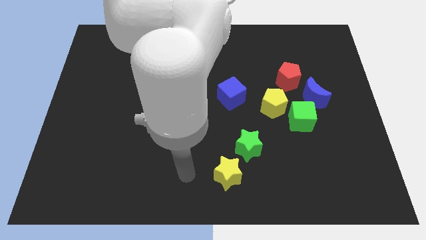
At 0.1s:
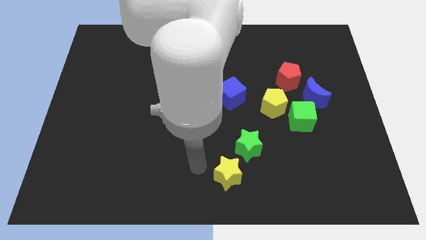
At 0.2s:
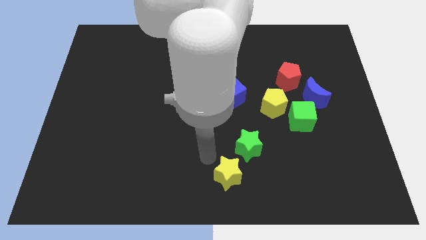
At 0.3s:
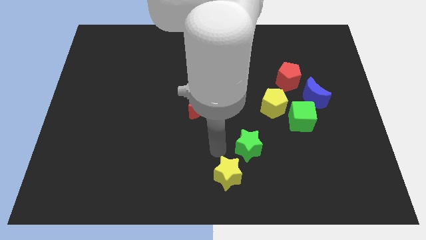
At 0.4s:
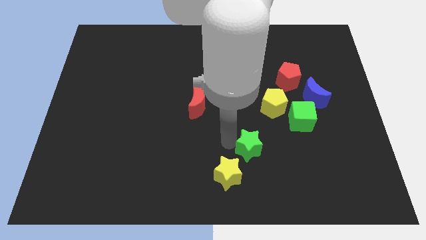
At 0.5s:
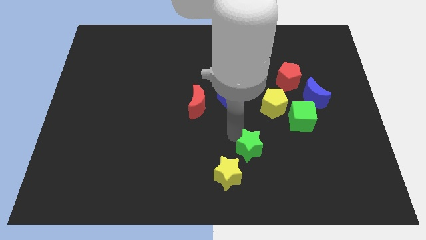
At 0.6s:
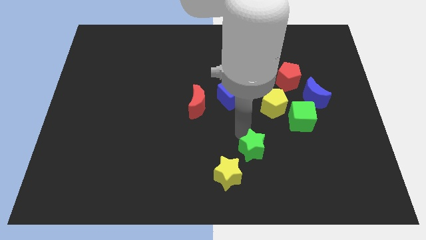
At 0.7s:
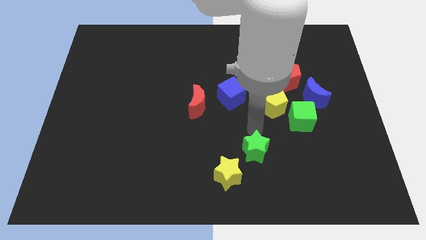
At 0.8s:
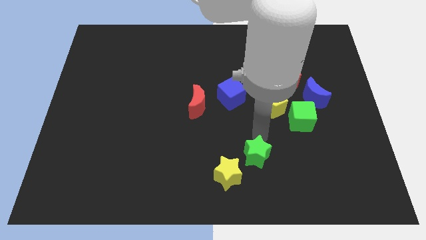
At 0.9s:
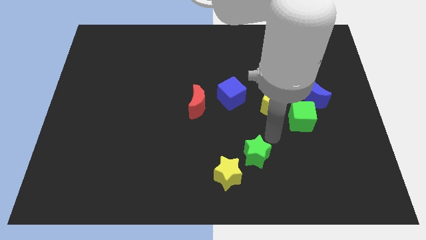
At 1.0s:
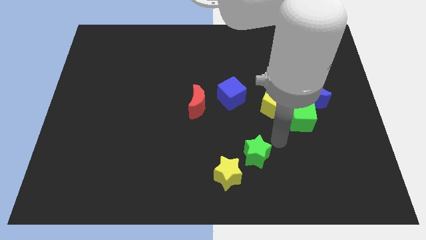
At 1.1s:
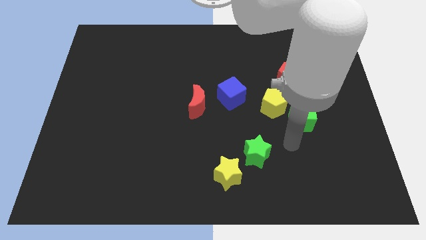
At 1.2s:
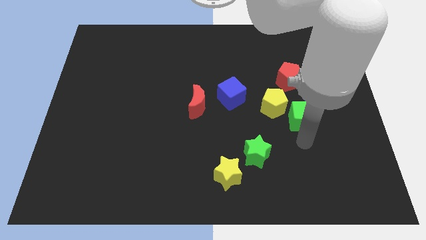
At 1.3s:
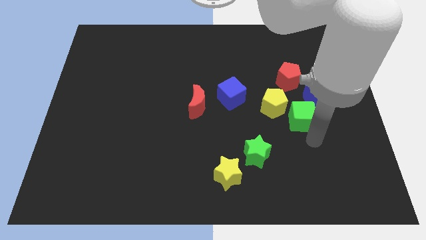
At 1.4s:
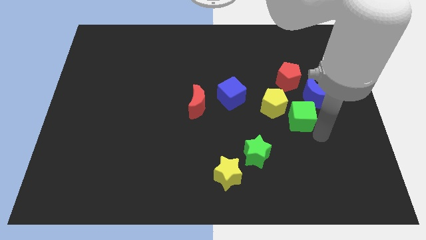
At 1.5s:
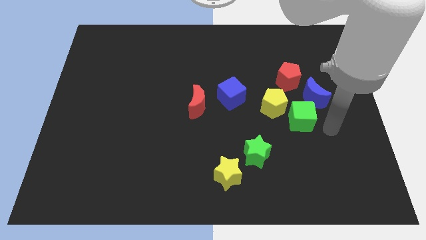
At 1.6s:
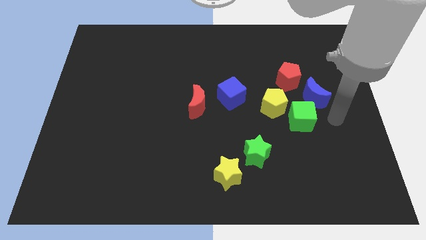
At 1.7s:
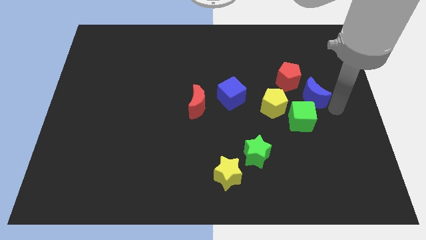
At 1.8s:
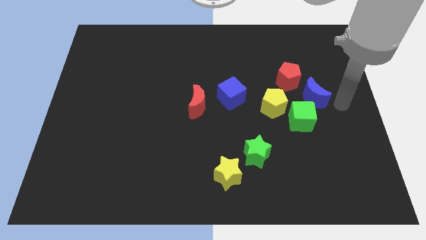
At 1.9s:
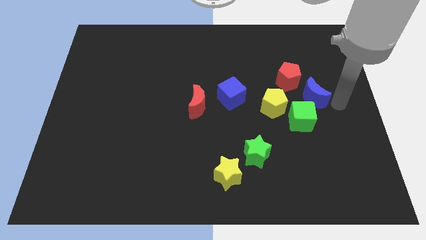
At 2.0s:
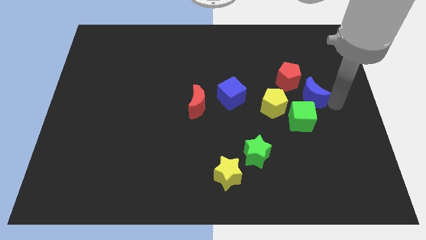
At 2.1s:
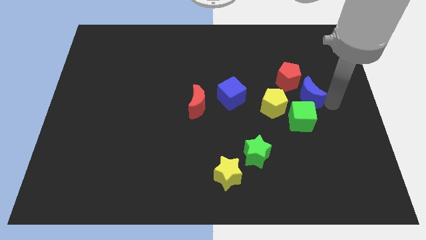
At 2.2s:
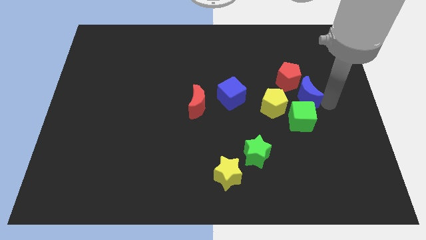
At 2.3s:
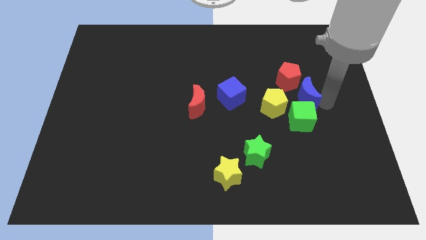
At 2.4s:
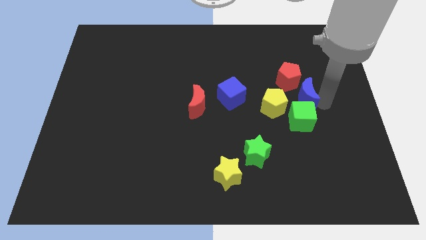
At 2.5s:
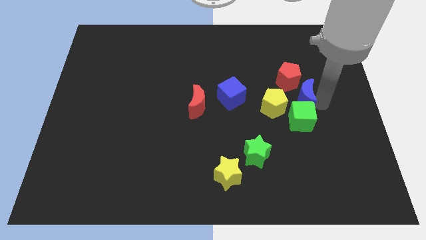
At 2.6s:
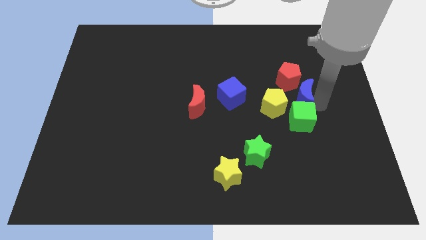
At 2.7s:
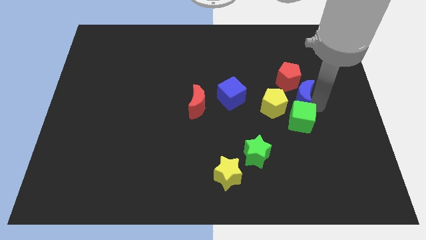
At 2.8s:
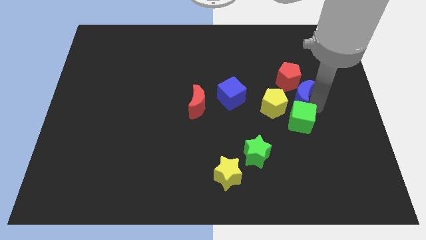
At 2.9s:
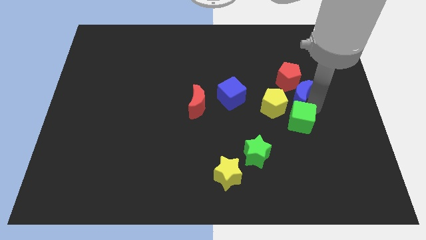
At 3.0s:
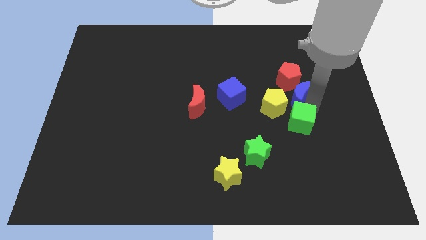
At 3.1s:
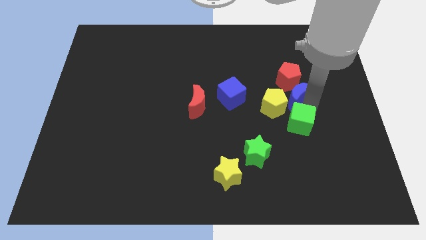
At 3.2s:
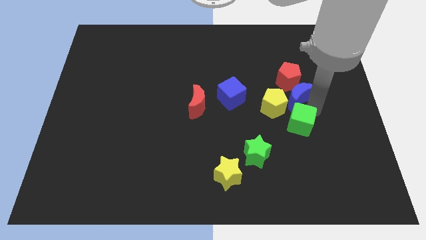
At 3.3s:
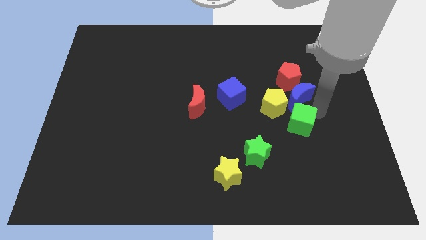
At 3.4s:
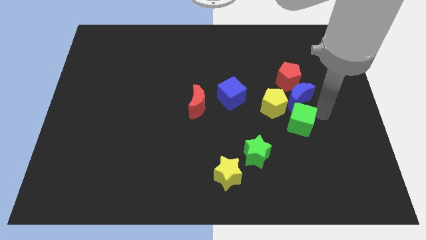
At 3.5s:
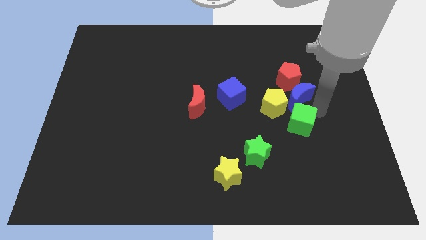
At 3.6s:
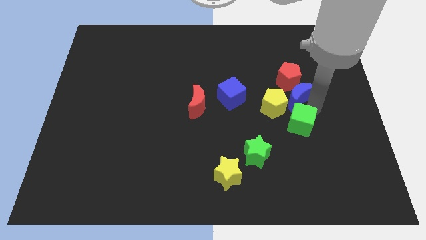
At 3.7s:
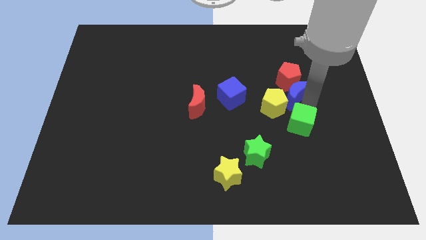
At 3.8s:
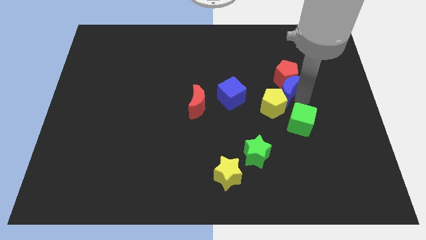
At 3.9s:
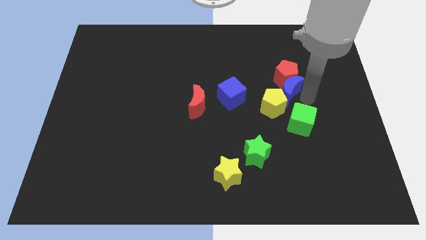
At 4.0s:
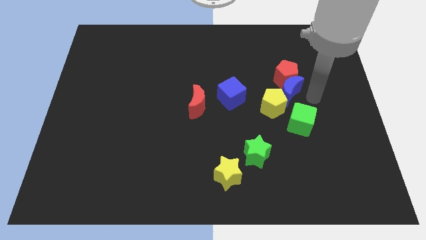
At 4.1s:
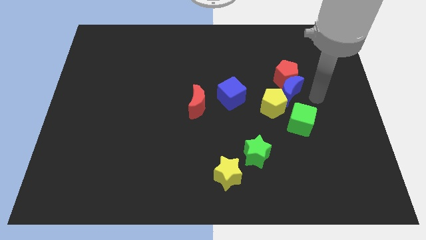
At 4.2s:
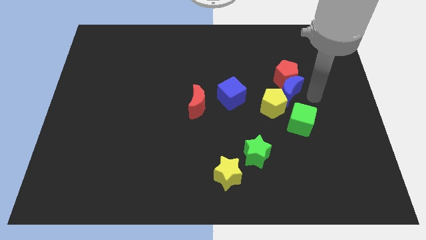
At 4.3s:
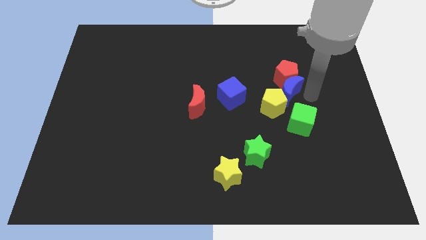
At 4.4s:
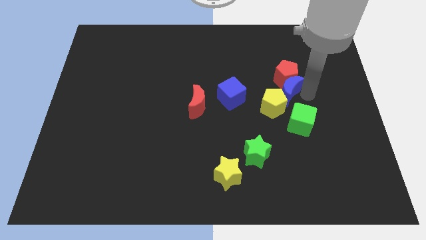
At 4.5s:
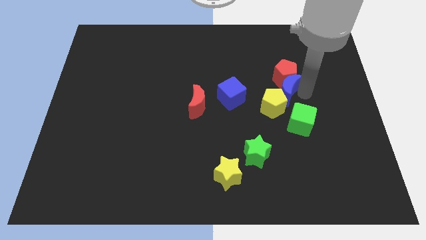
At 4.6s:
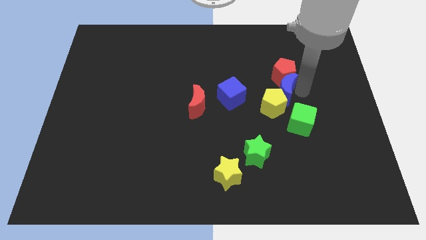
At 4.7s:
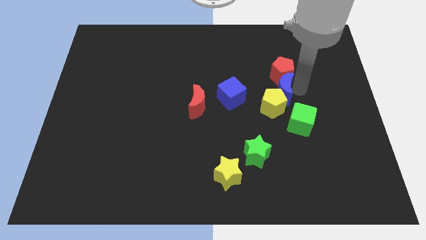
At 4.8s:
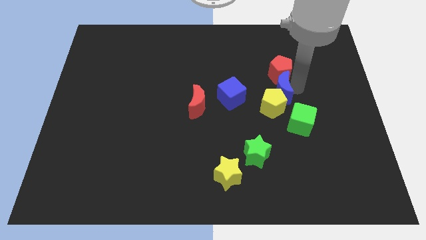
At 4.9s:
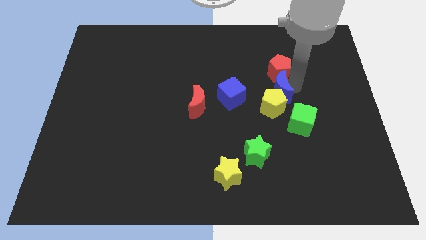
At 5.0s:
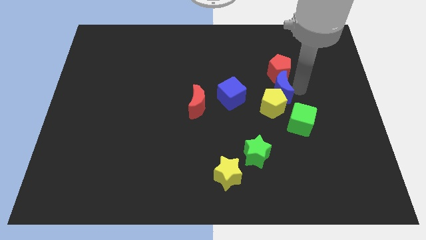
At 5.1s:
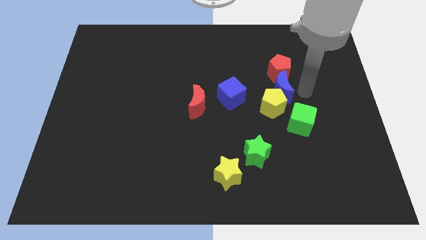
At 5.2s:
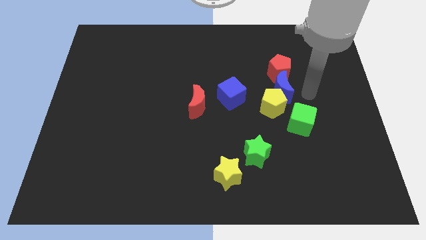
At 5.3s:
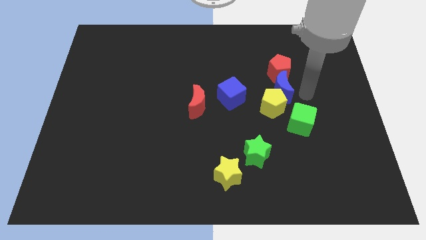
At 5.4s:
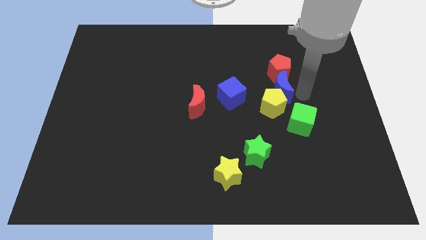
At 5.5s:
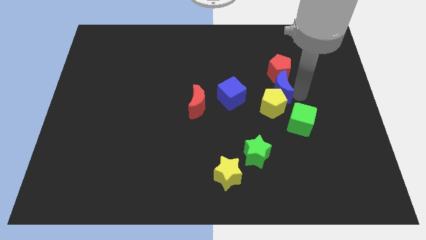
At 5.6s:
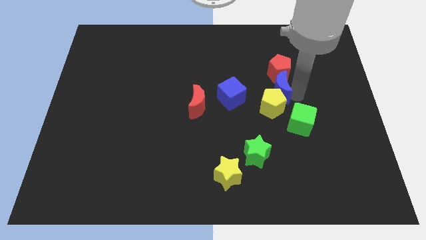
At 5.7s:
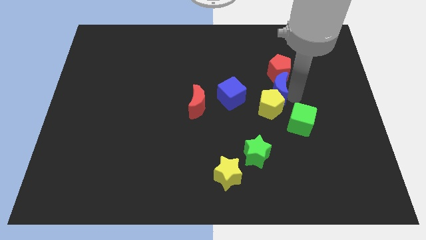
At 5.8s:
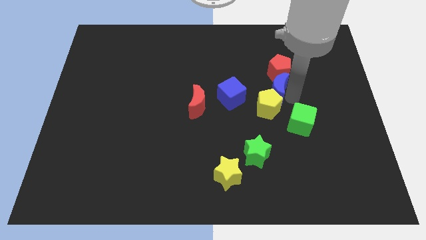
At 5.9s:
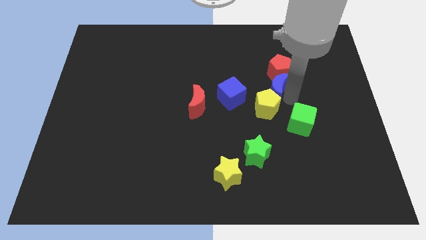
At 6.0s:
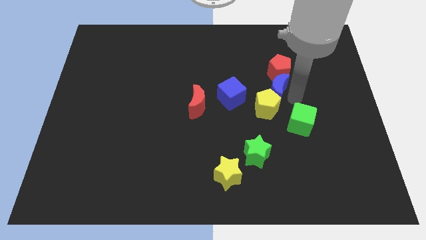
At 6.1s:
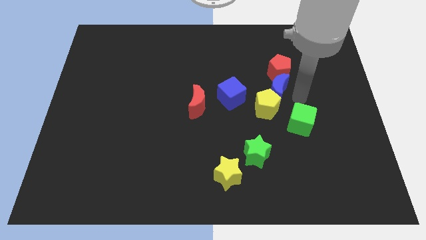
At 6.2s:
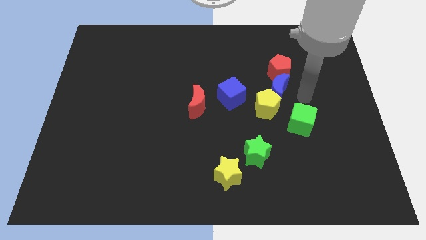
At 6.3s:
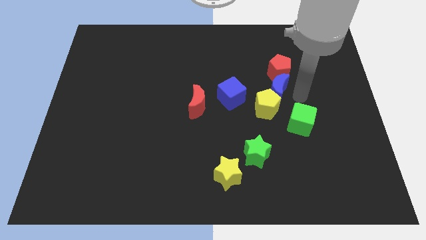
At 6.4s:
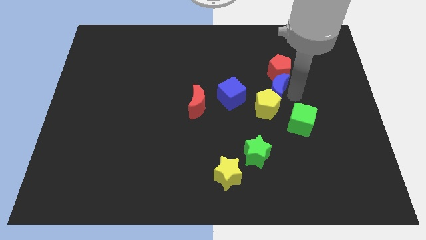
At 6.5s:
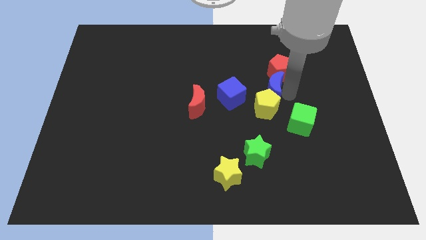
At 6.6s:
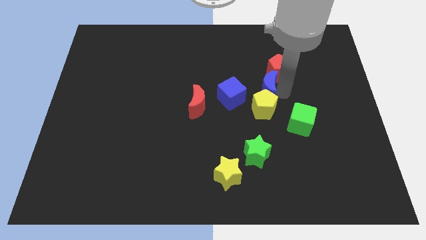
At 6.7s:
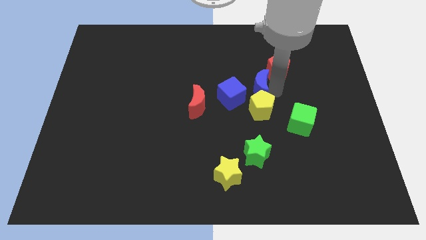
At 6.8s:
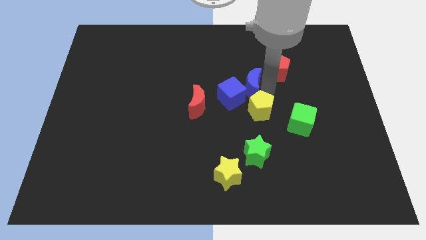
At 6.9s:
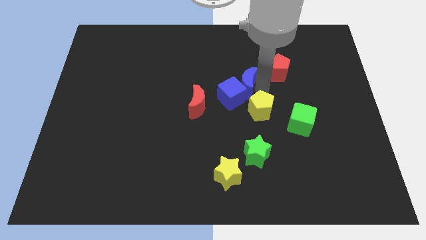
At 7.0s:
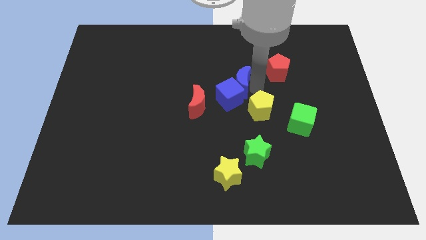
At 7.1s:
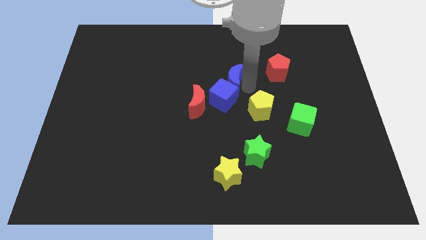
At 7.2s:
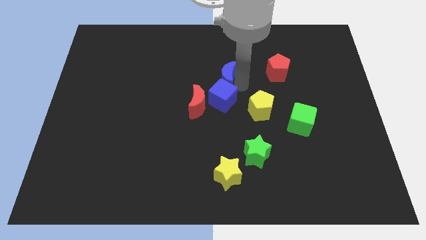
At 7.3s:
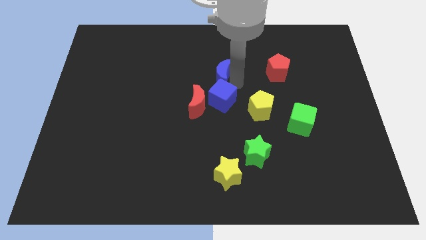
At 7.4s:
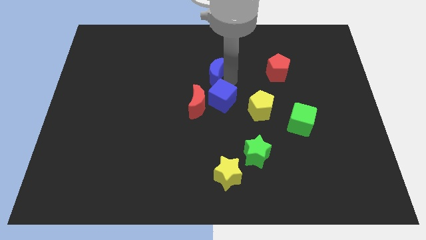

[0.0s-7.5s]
slide the blue moon to the top side of the red moon
